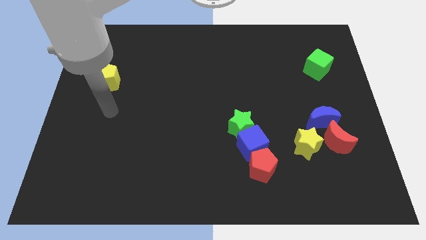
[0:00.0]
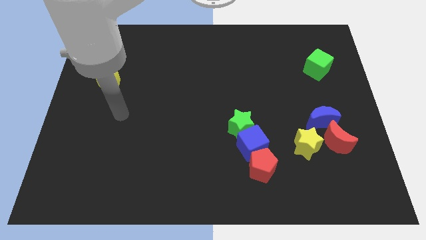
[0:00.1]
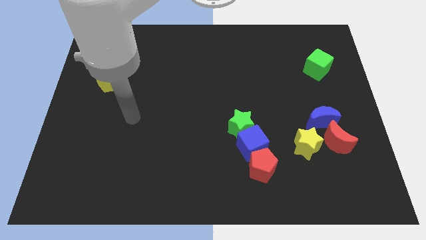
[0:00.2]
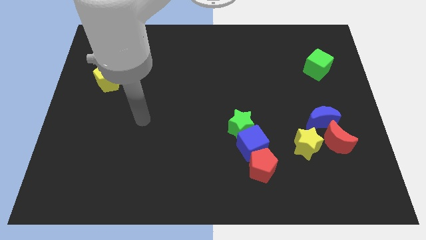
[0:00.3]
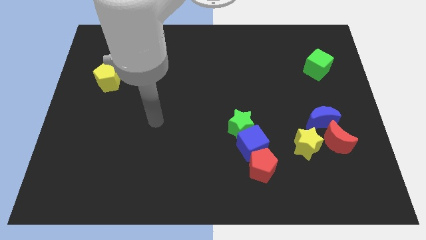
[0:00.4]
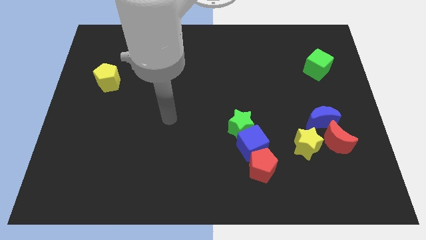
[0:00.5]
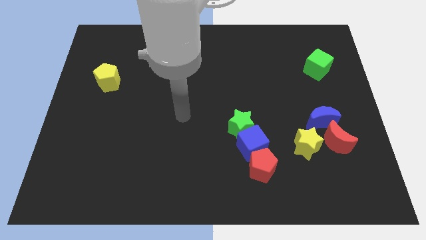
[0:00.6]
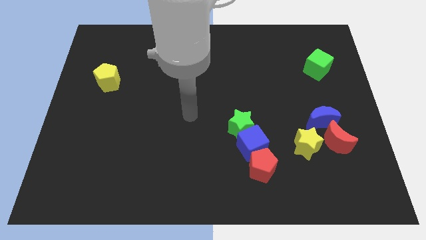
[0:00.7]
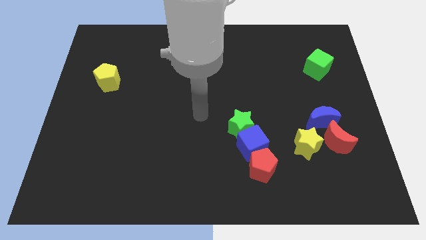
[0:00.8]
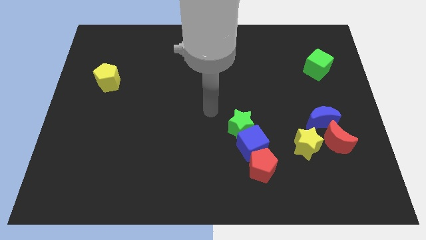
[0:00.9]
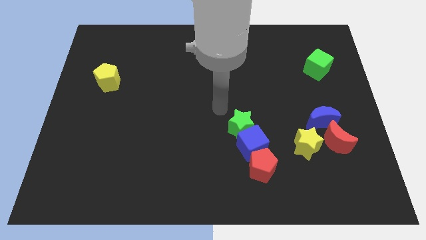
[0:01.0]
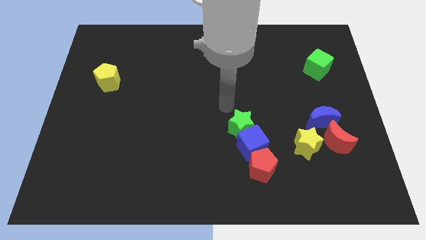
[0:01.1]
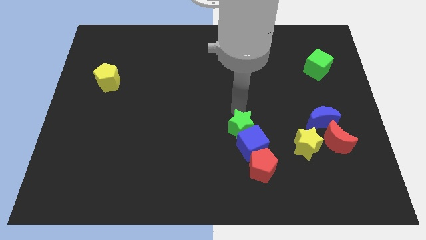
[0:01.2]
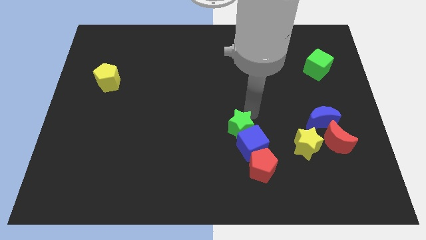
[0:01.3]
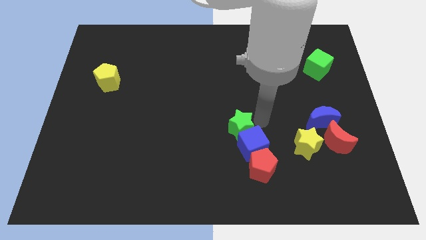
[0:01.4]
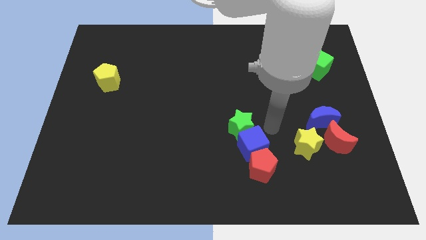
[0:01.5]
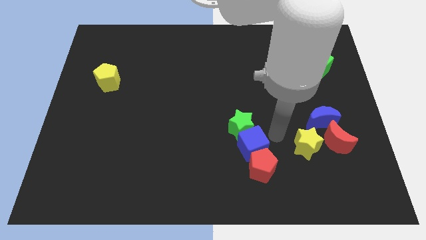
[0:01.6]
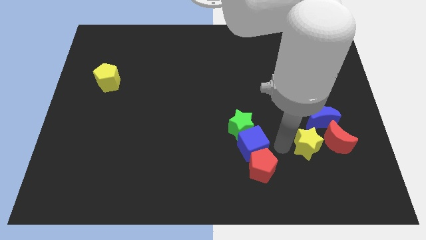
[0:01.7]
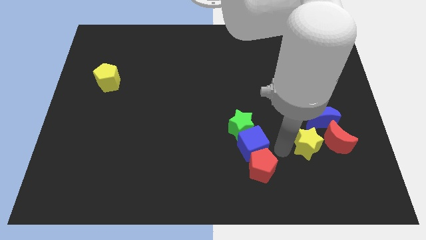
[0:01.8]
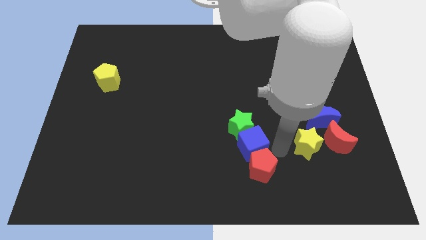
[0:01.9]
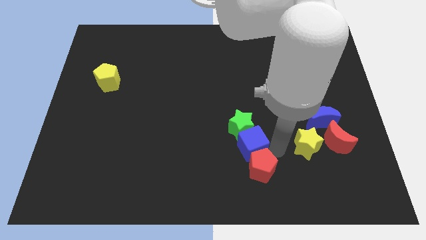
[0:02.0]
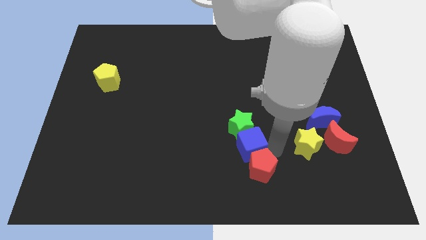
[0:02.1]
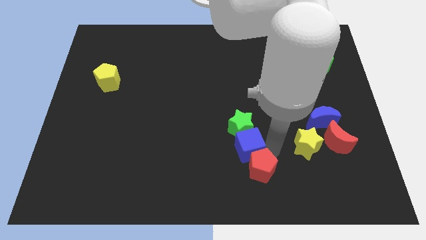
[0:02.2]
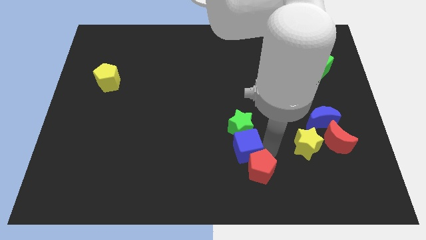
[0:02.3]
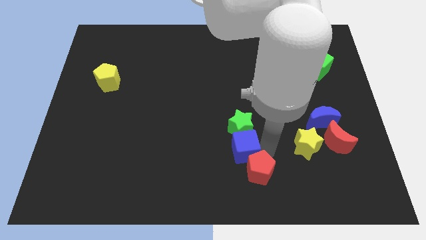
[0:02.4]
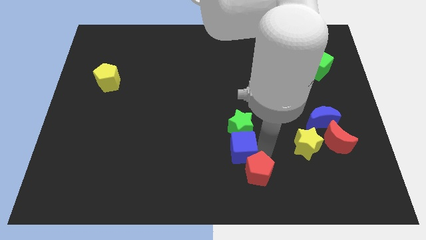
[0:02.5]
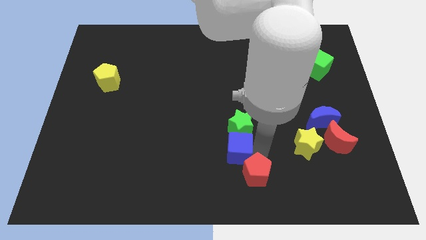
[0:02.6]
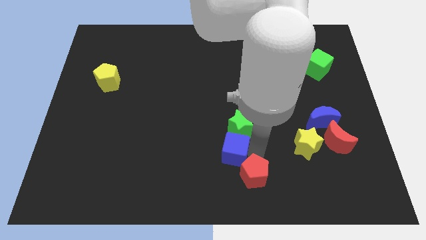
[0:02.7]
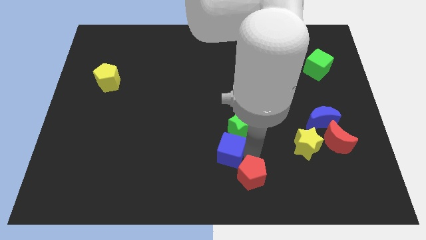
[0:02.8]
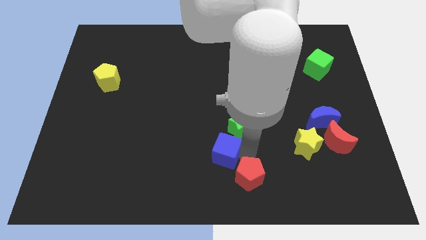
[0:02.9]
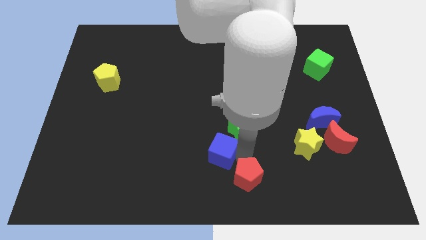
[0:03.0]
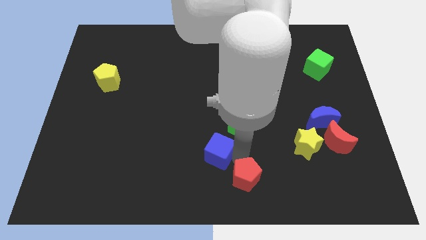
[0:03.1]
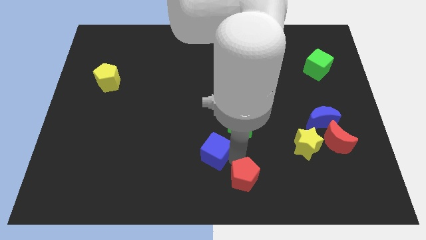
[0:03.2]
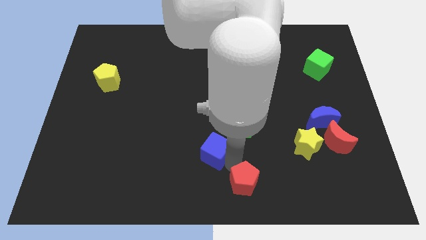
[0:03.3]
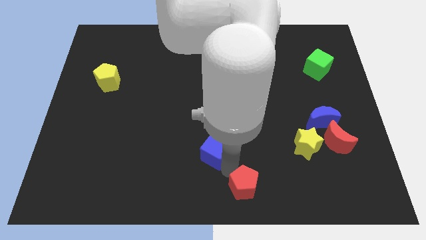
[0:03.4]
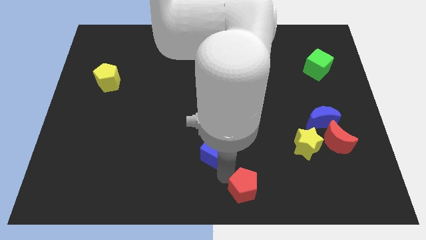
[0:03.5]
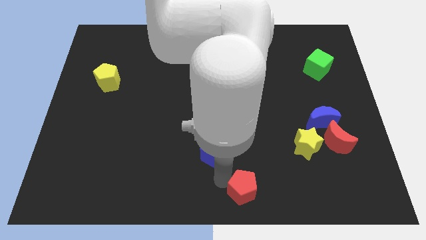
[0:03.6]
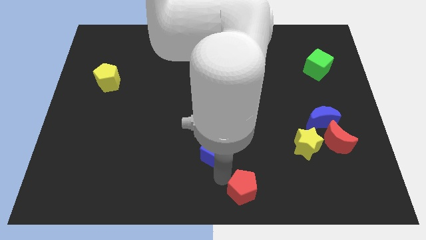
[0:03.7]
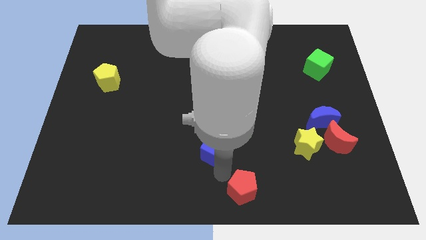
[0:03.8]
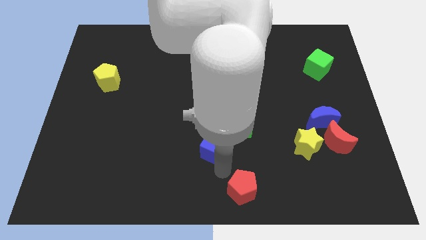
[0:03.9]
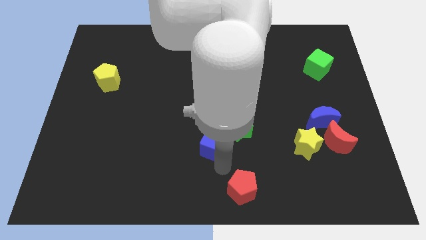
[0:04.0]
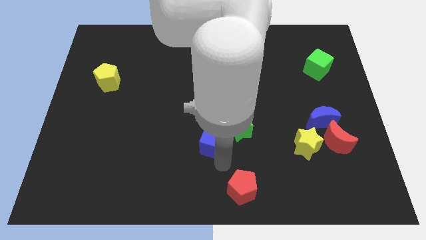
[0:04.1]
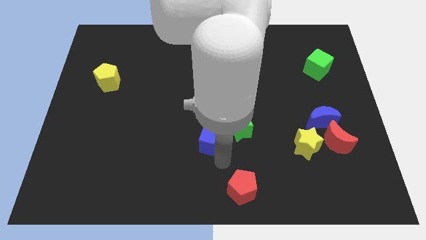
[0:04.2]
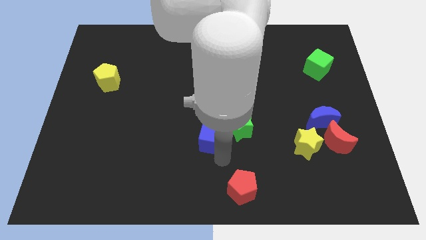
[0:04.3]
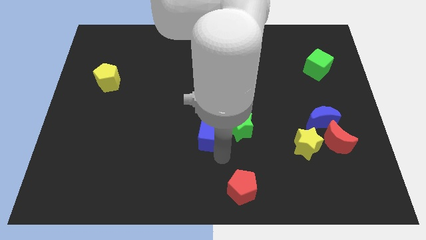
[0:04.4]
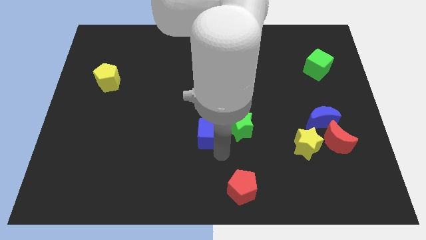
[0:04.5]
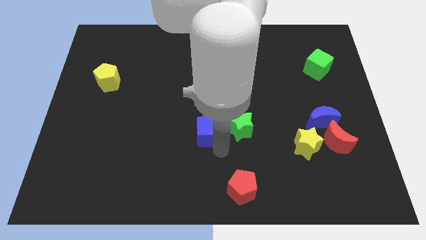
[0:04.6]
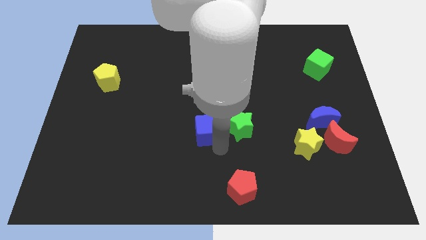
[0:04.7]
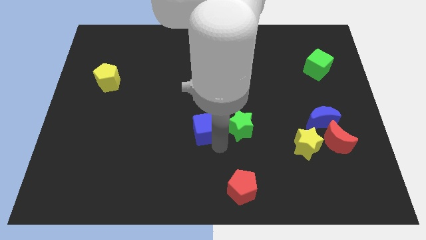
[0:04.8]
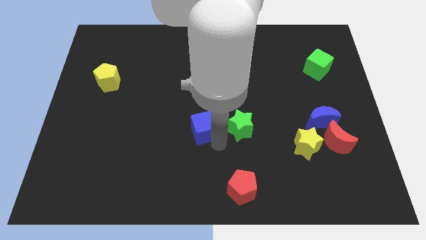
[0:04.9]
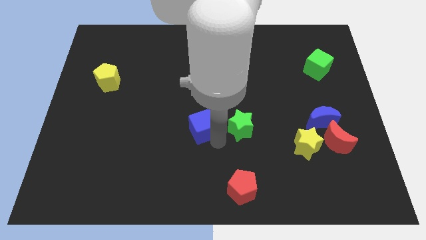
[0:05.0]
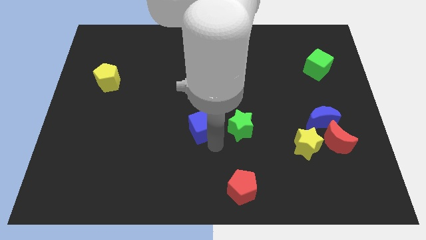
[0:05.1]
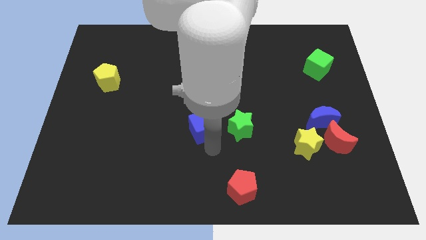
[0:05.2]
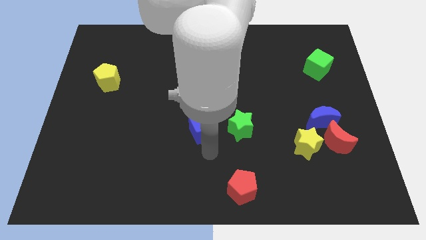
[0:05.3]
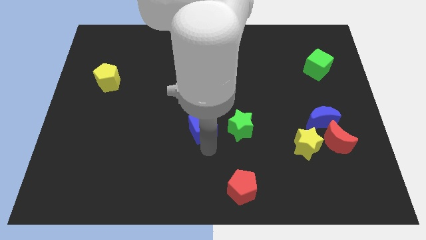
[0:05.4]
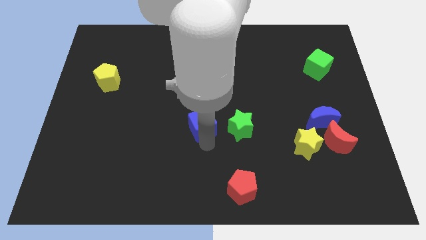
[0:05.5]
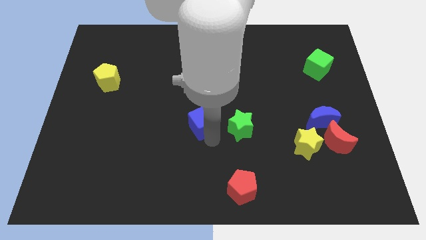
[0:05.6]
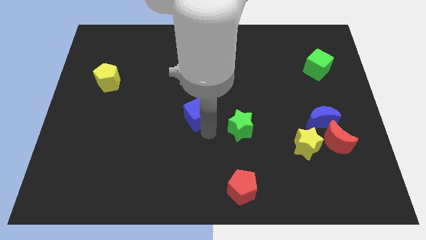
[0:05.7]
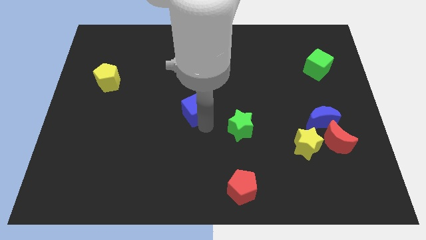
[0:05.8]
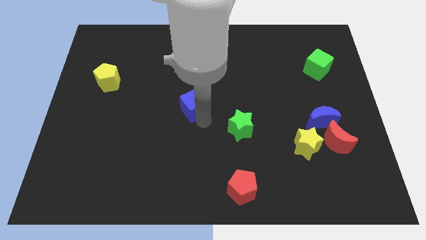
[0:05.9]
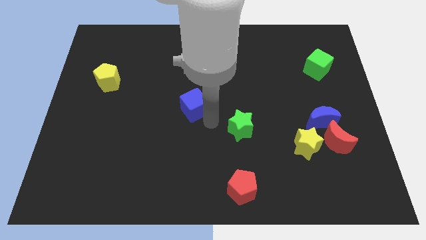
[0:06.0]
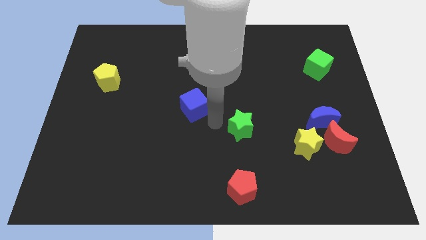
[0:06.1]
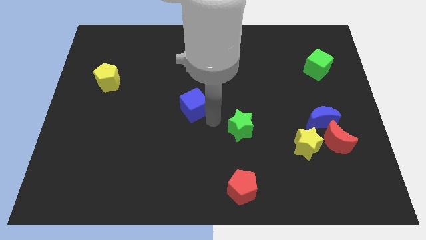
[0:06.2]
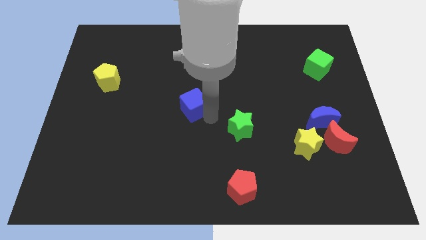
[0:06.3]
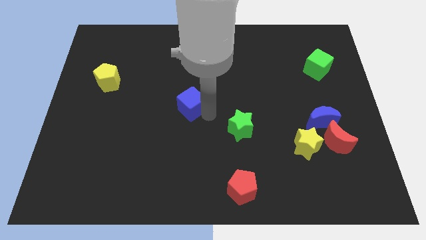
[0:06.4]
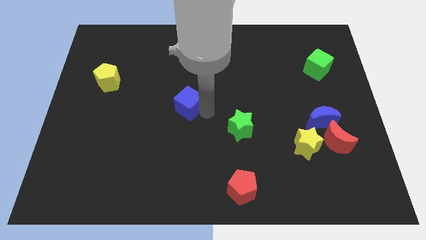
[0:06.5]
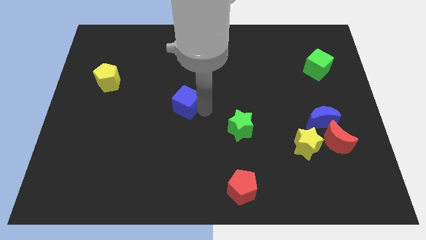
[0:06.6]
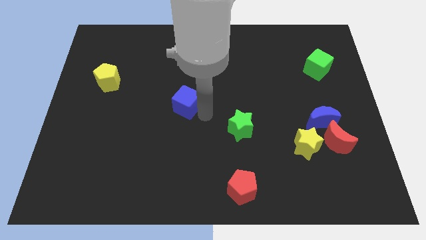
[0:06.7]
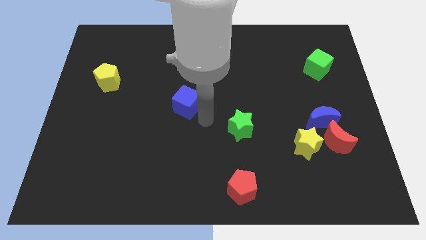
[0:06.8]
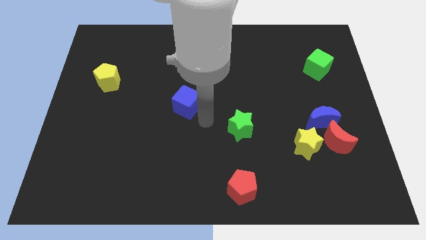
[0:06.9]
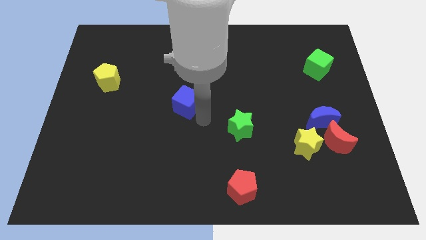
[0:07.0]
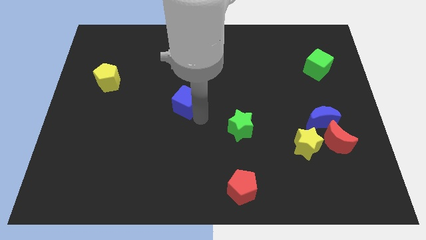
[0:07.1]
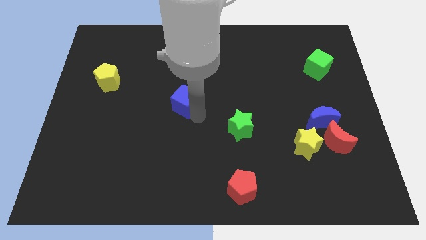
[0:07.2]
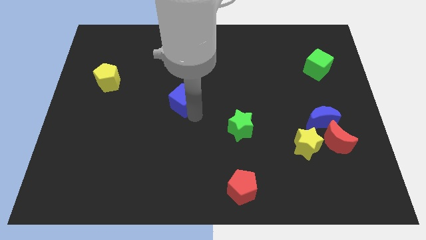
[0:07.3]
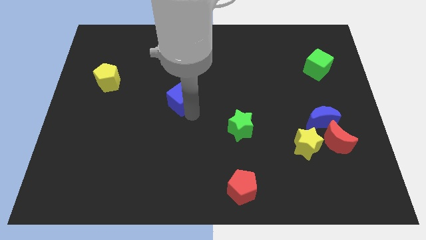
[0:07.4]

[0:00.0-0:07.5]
slide the blue cube upwards and left diagonally

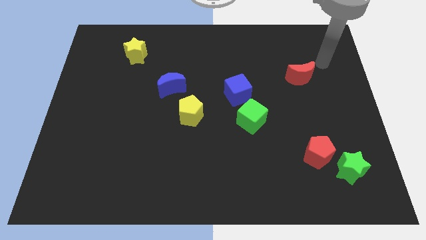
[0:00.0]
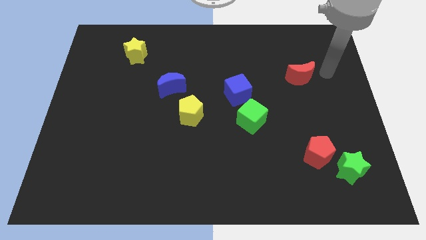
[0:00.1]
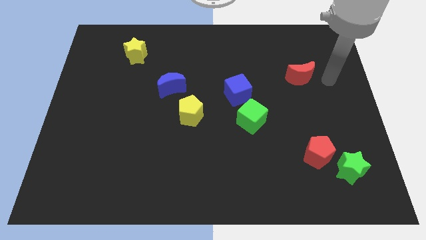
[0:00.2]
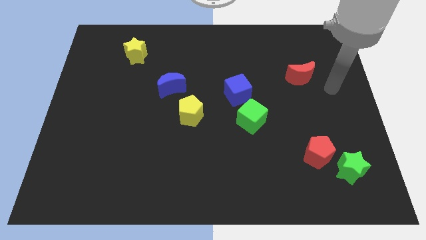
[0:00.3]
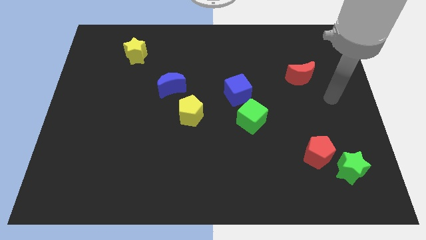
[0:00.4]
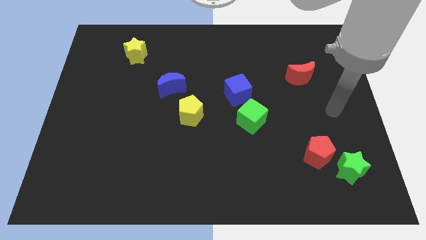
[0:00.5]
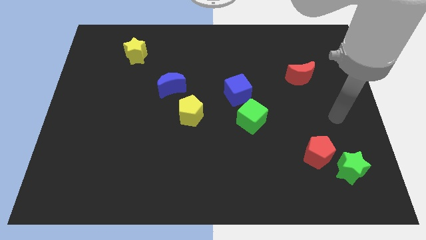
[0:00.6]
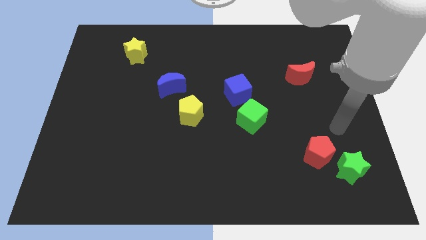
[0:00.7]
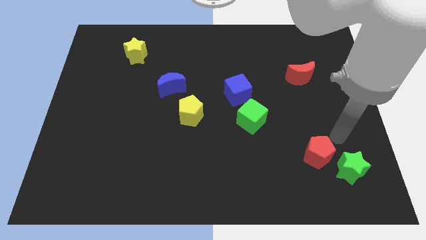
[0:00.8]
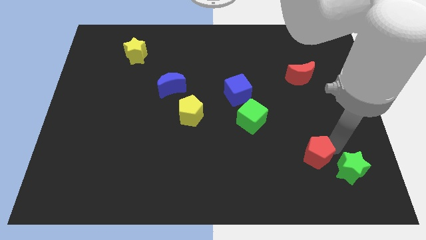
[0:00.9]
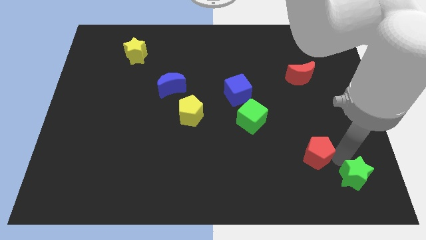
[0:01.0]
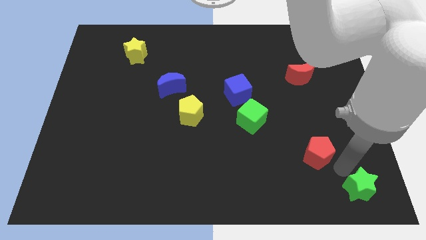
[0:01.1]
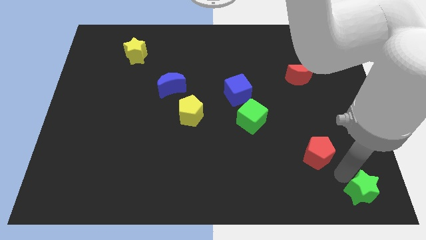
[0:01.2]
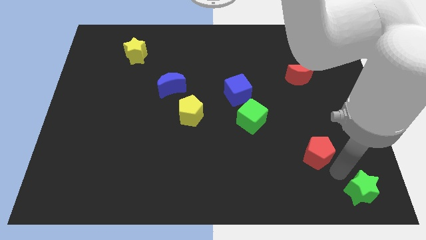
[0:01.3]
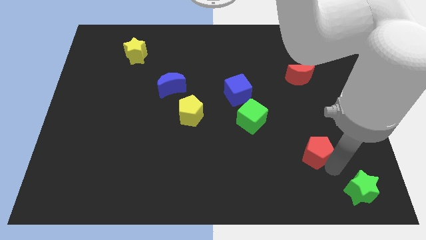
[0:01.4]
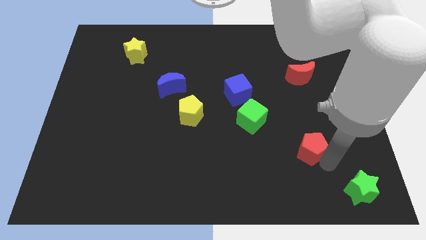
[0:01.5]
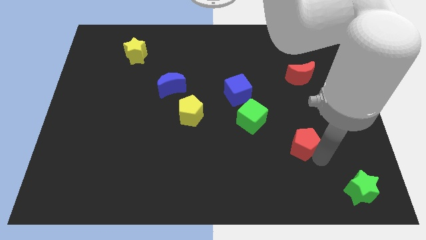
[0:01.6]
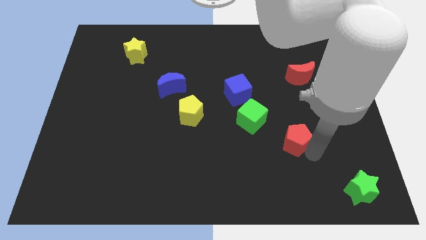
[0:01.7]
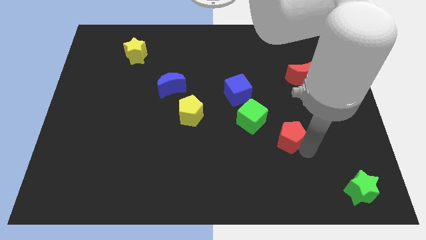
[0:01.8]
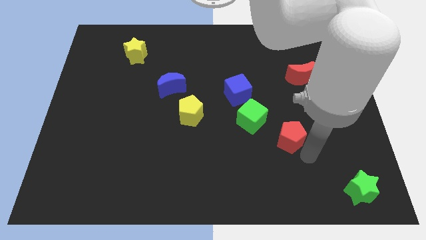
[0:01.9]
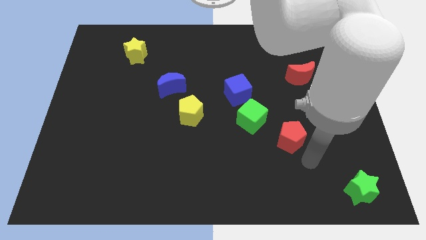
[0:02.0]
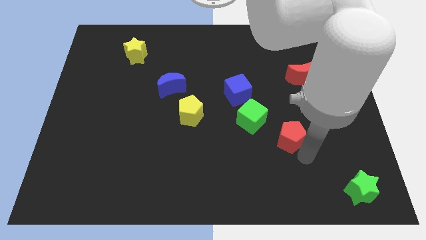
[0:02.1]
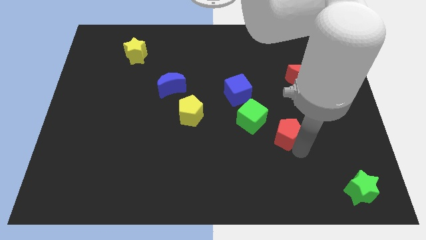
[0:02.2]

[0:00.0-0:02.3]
move the red pentagon somewhat up and then to the left
